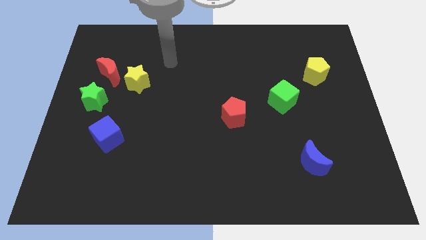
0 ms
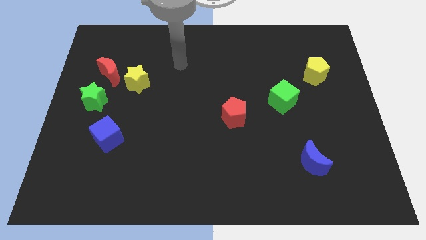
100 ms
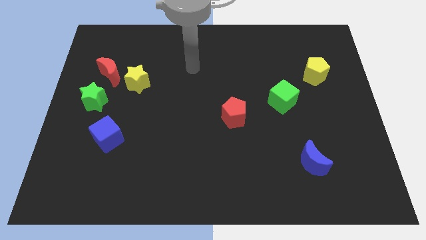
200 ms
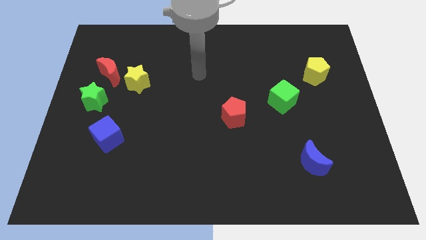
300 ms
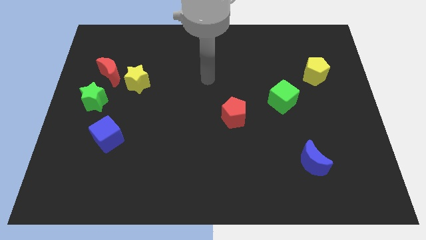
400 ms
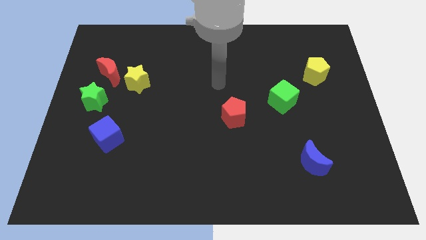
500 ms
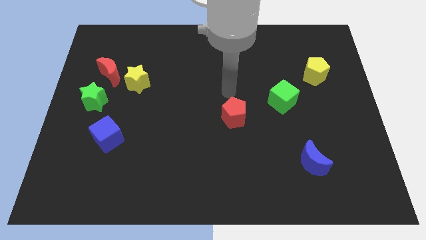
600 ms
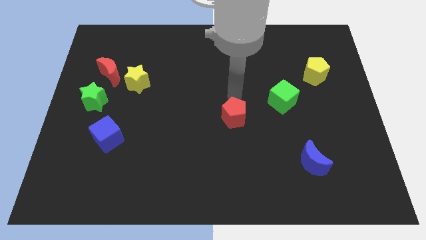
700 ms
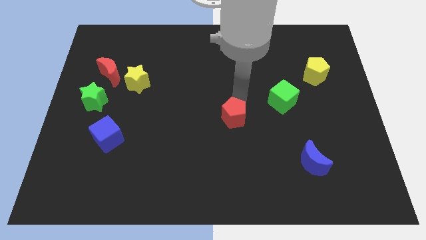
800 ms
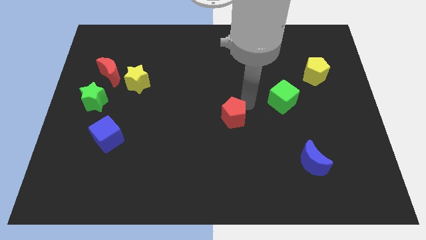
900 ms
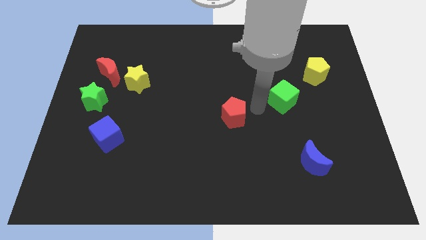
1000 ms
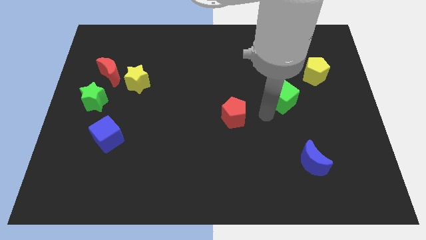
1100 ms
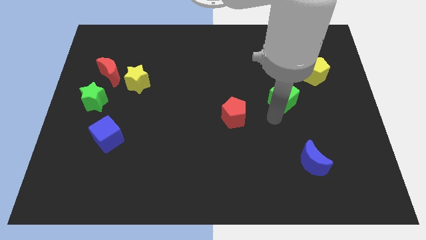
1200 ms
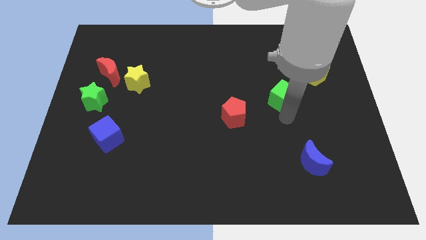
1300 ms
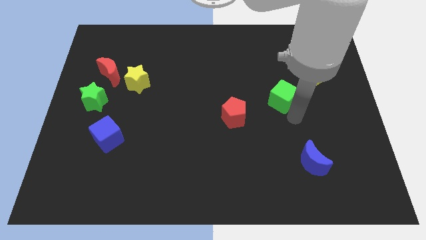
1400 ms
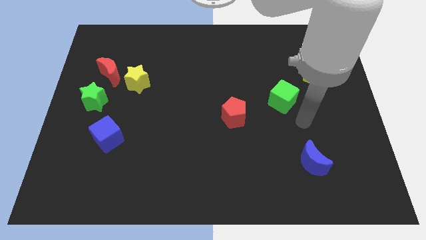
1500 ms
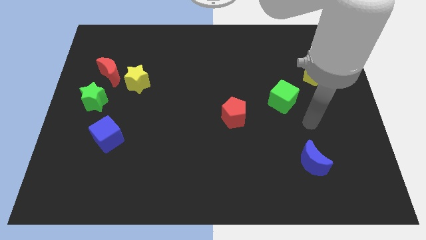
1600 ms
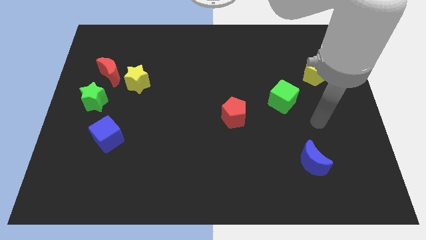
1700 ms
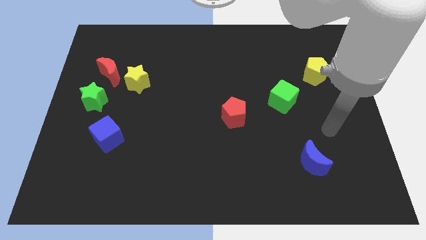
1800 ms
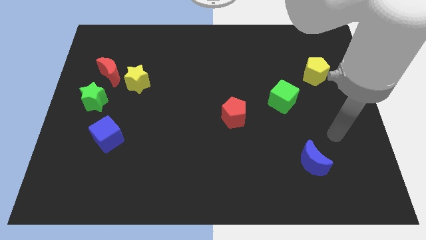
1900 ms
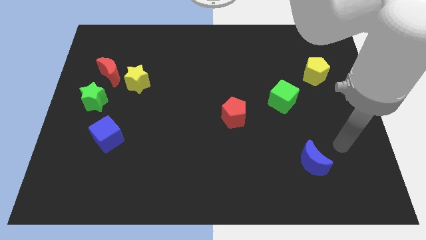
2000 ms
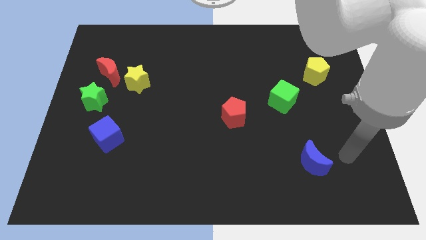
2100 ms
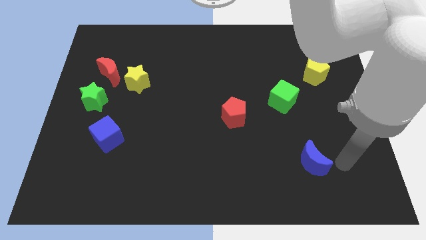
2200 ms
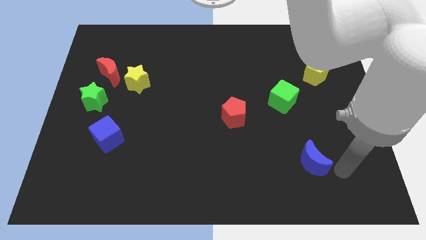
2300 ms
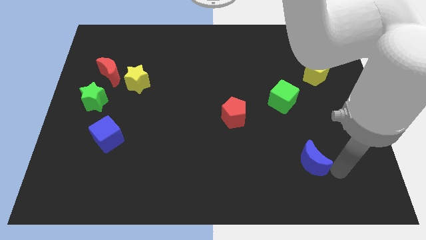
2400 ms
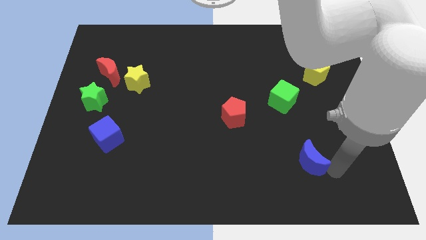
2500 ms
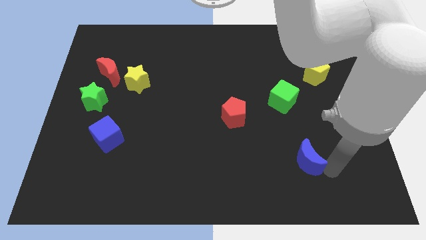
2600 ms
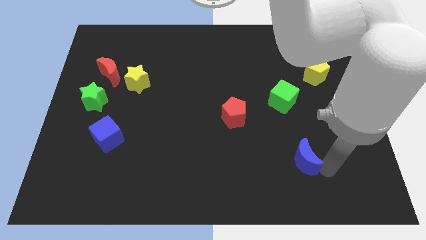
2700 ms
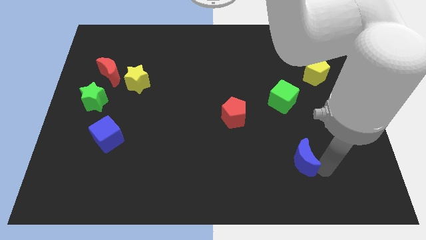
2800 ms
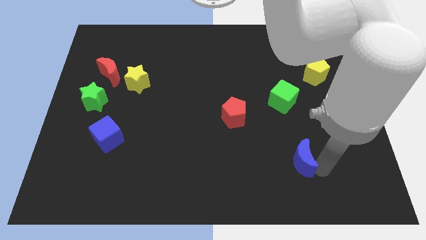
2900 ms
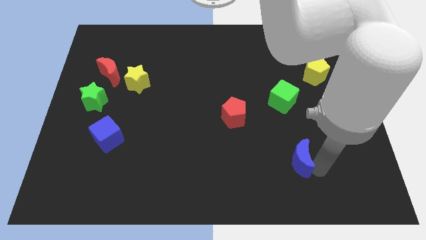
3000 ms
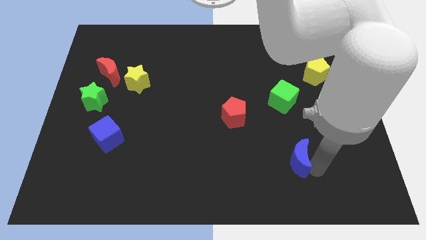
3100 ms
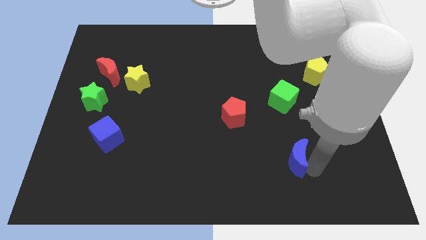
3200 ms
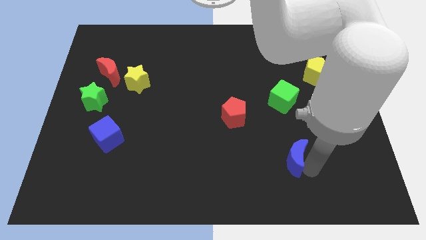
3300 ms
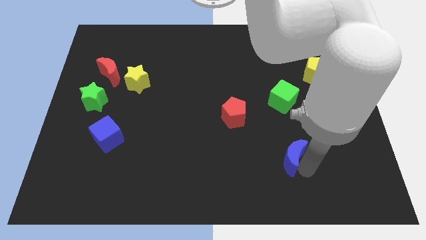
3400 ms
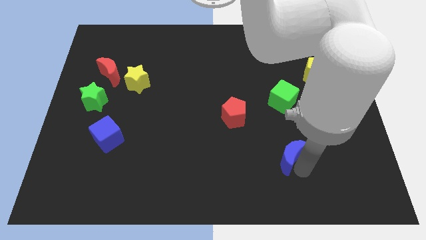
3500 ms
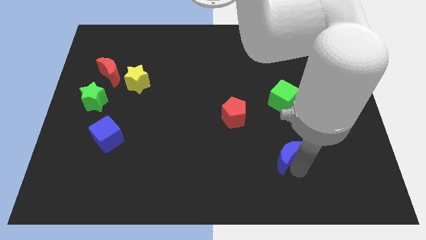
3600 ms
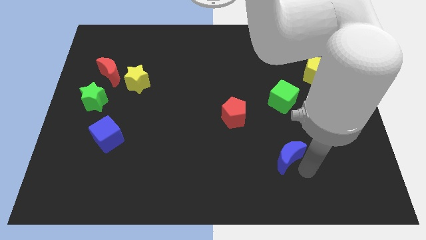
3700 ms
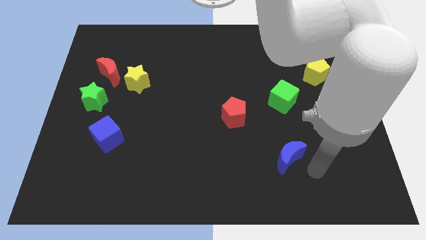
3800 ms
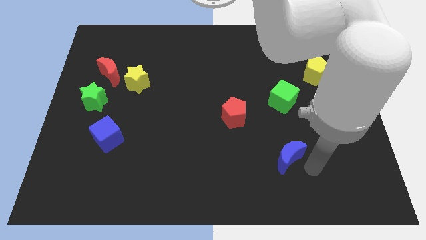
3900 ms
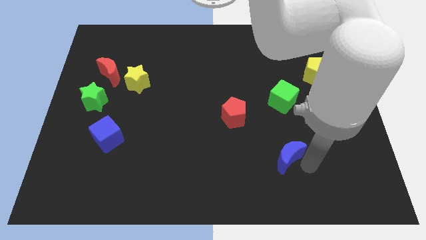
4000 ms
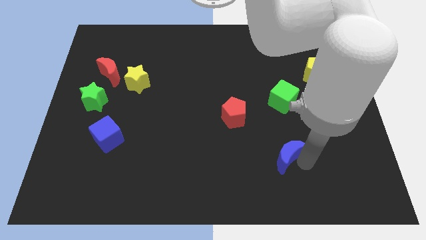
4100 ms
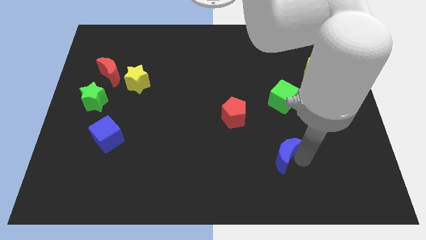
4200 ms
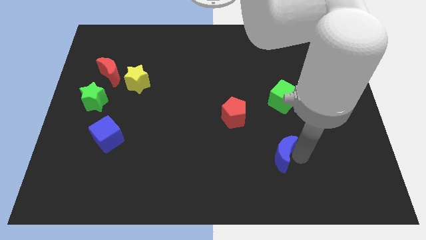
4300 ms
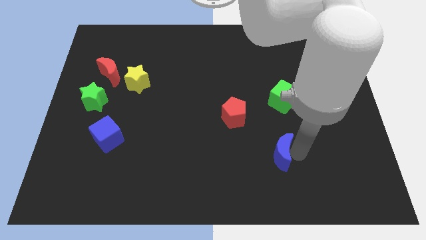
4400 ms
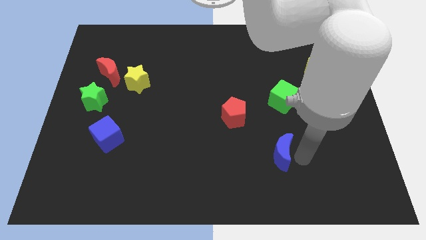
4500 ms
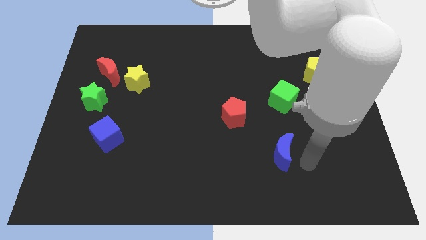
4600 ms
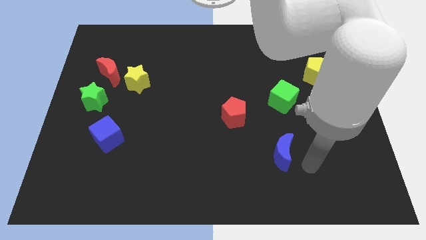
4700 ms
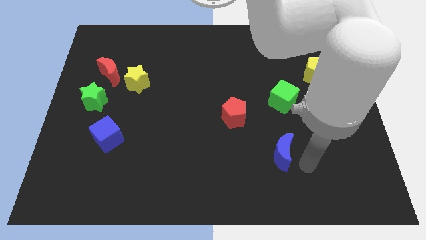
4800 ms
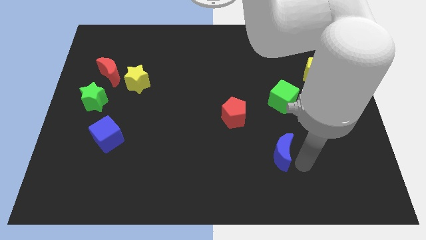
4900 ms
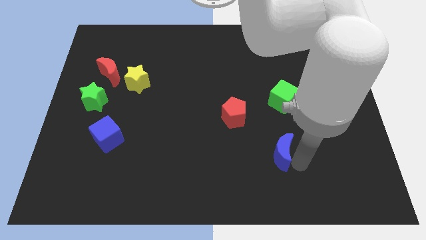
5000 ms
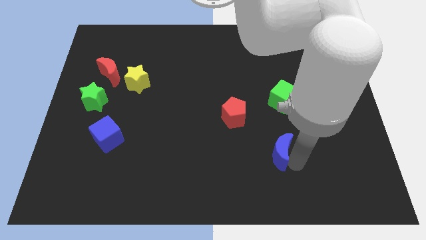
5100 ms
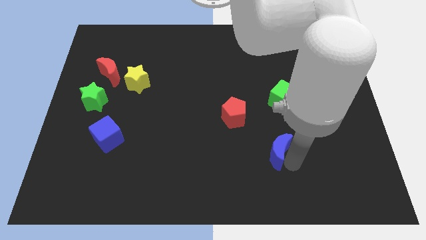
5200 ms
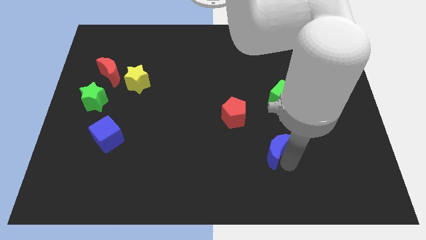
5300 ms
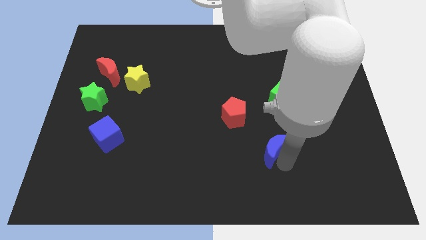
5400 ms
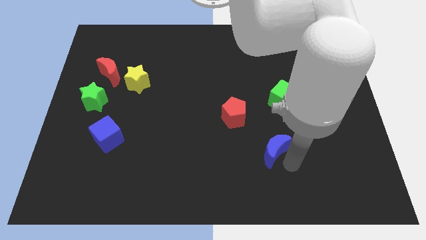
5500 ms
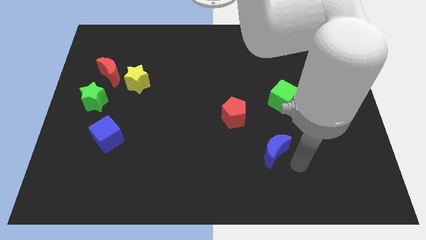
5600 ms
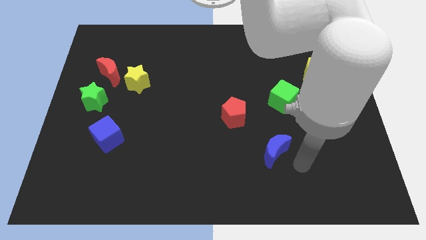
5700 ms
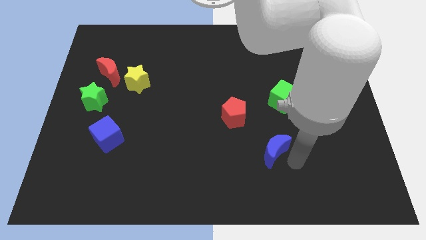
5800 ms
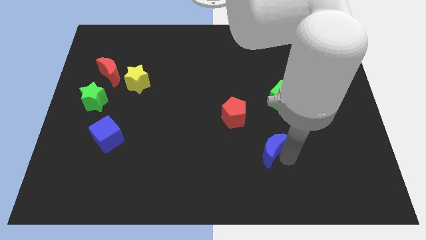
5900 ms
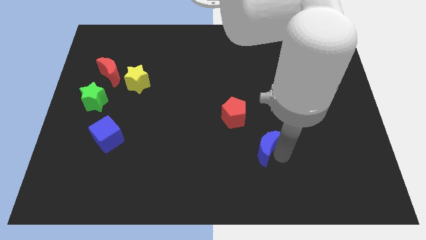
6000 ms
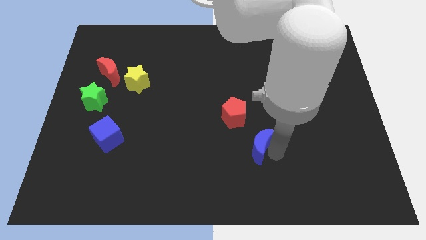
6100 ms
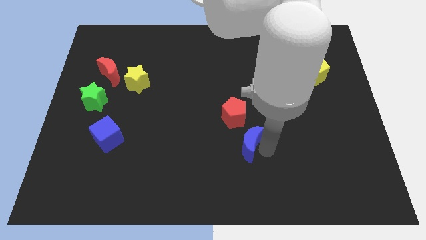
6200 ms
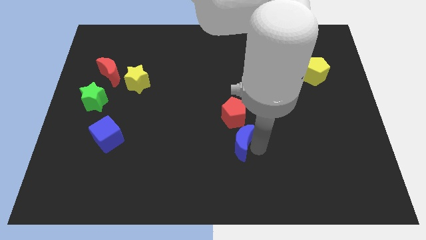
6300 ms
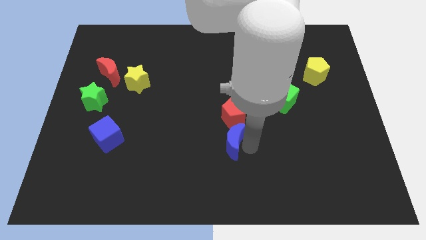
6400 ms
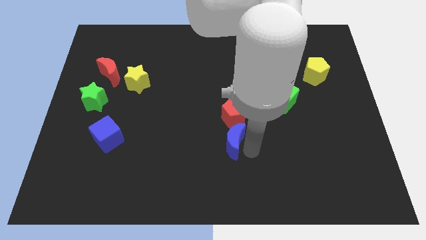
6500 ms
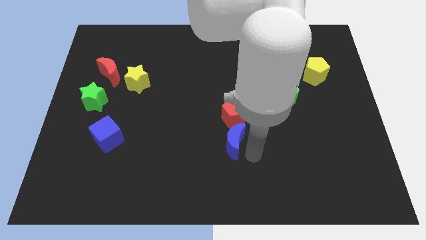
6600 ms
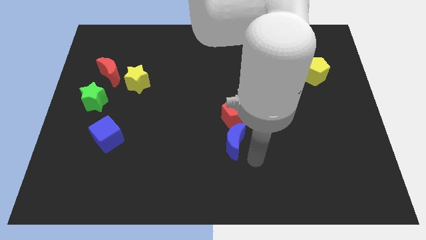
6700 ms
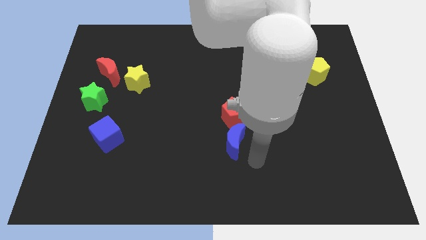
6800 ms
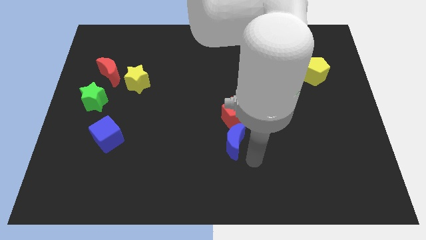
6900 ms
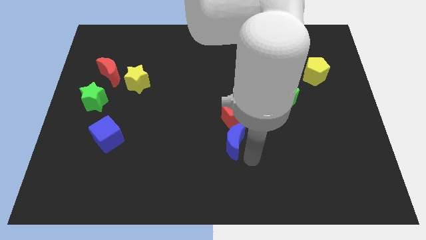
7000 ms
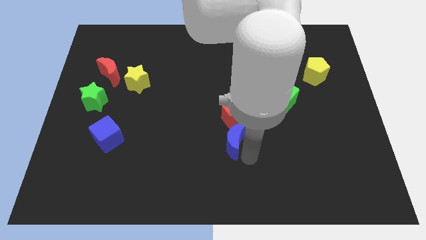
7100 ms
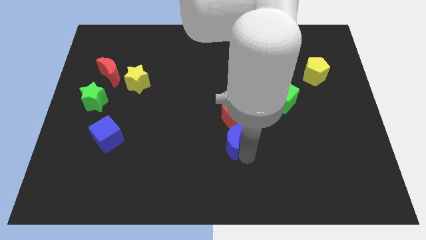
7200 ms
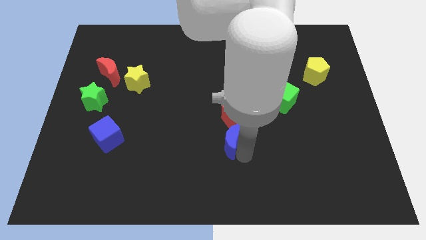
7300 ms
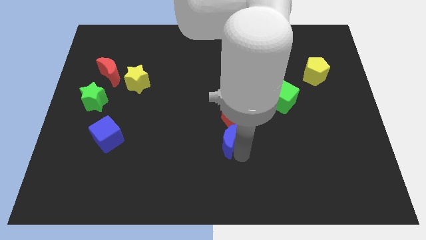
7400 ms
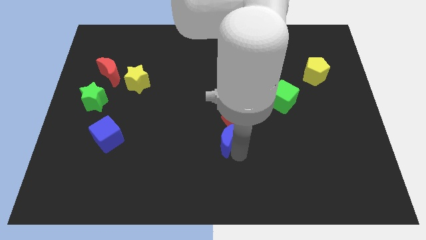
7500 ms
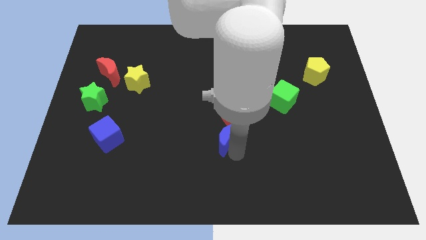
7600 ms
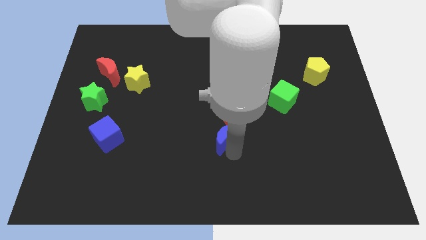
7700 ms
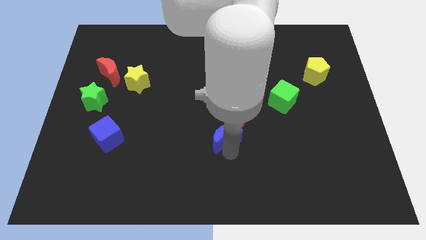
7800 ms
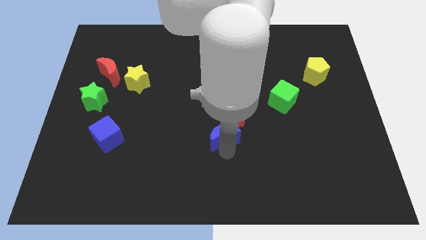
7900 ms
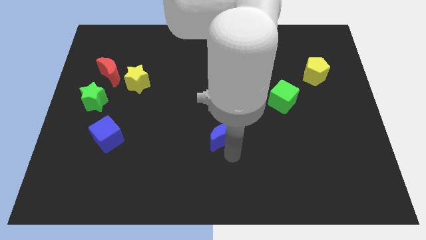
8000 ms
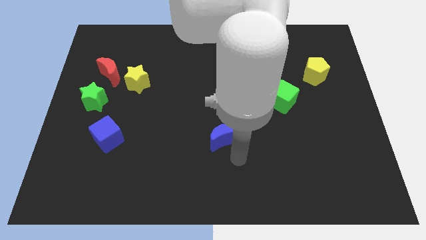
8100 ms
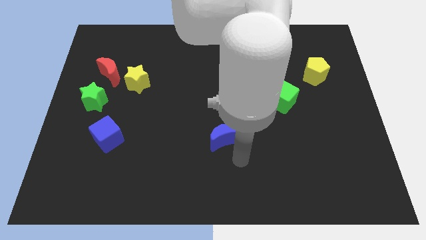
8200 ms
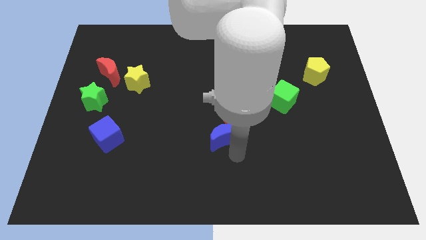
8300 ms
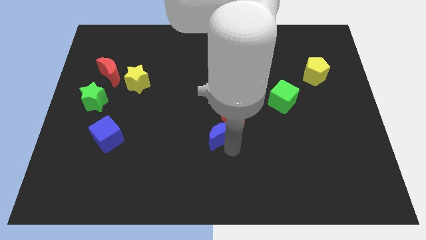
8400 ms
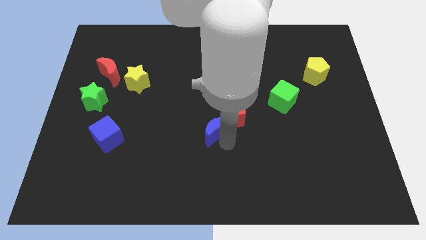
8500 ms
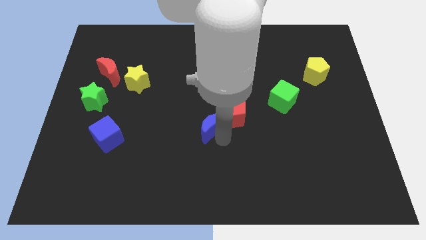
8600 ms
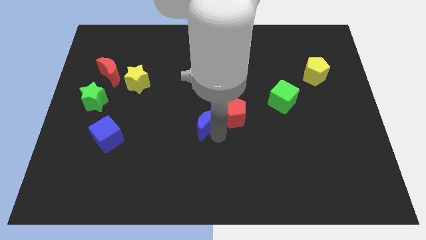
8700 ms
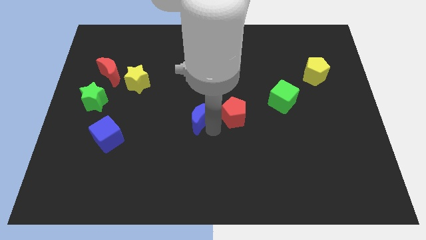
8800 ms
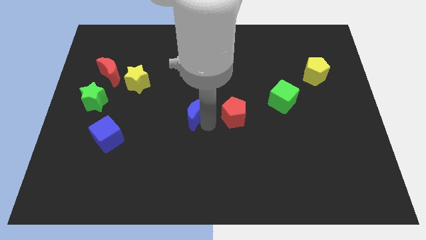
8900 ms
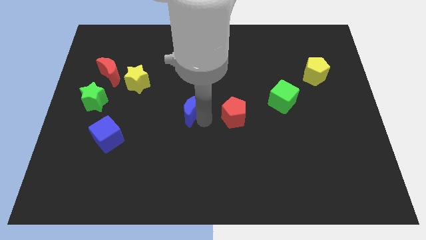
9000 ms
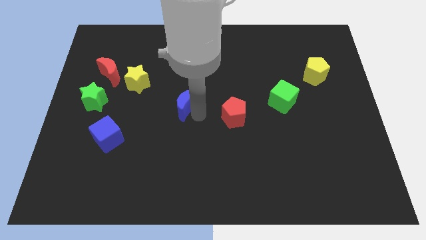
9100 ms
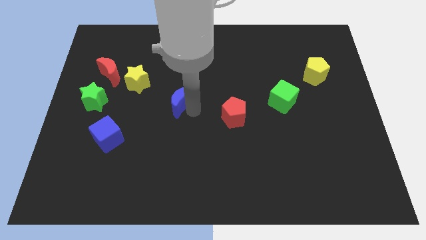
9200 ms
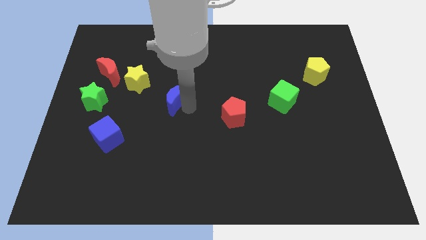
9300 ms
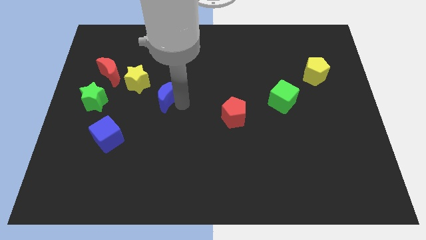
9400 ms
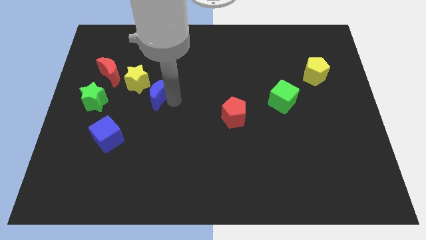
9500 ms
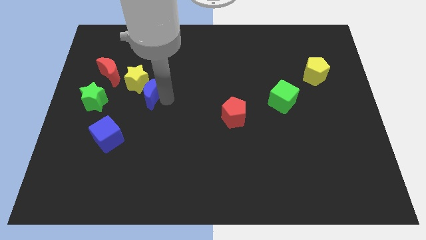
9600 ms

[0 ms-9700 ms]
put the blue moon next to the yellow star
